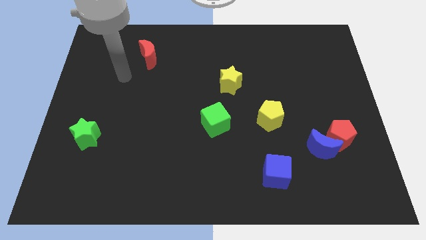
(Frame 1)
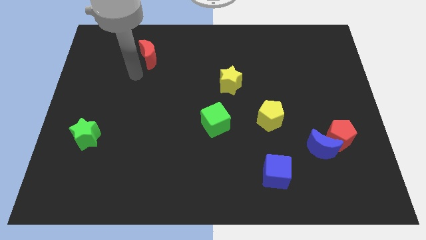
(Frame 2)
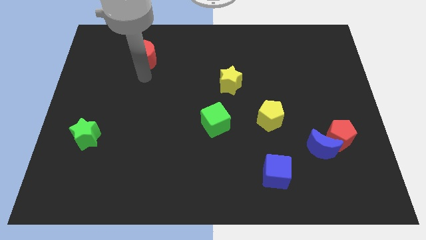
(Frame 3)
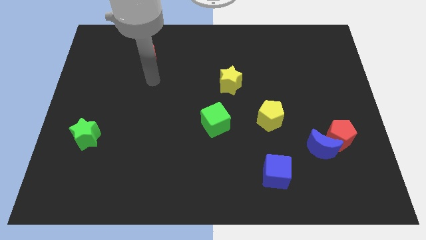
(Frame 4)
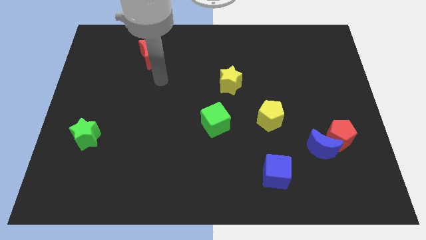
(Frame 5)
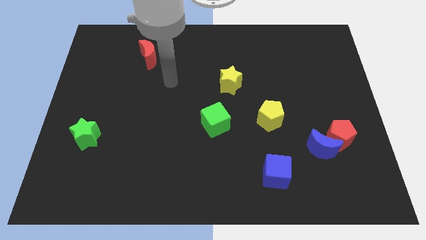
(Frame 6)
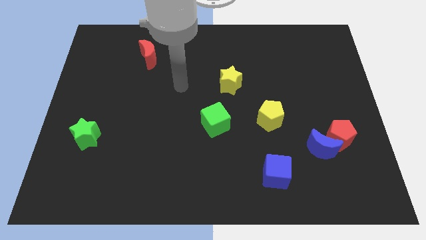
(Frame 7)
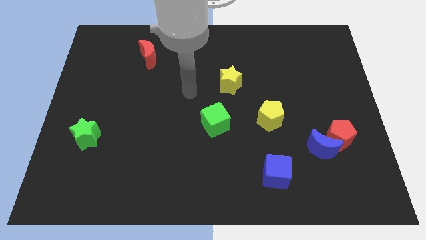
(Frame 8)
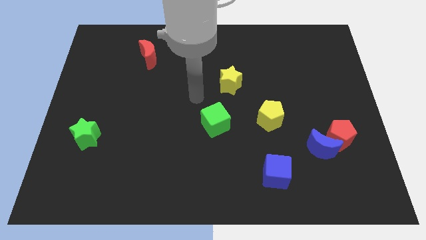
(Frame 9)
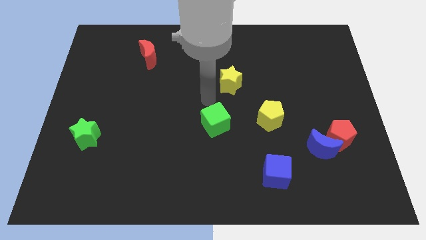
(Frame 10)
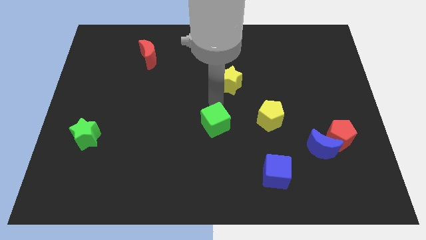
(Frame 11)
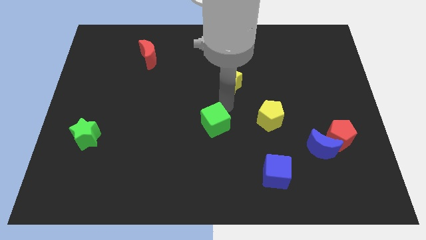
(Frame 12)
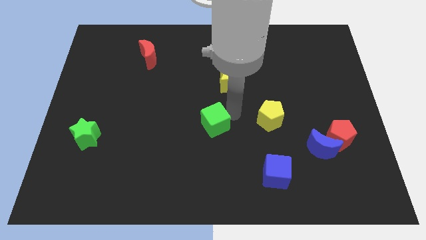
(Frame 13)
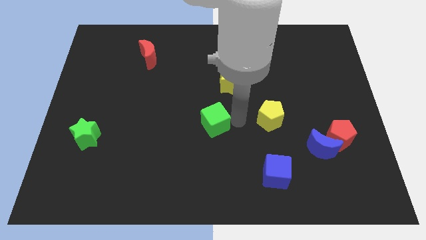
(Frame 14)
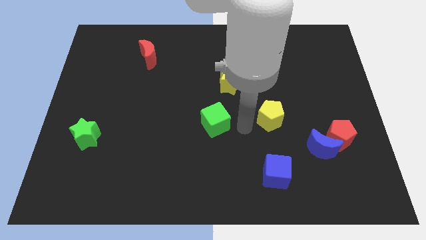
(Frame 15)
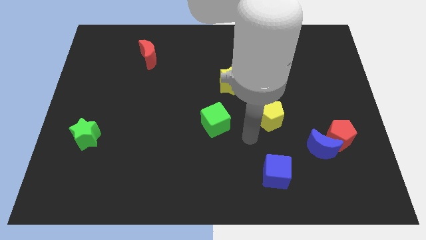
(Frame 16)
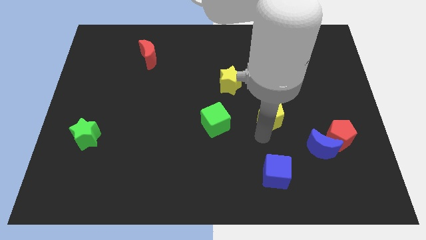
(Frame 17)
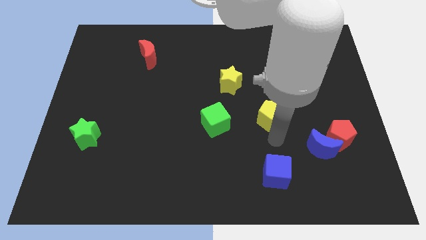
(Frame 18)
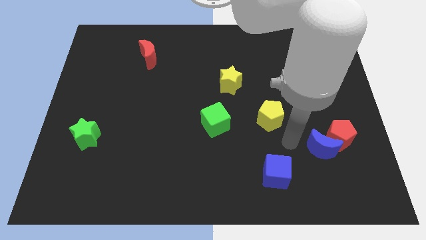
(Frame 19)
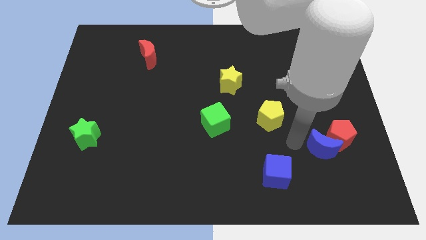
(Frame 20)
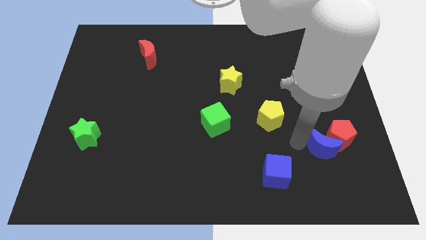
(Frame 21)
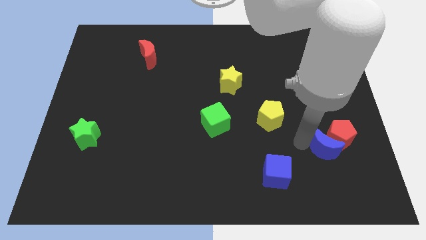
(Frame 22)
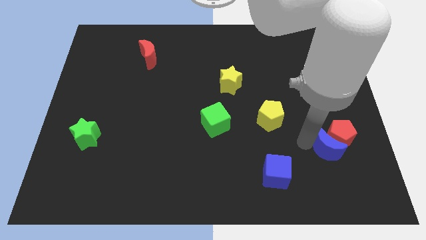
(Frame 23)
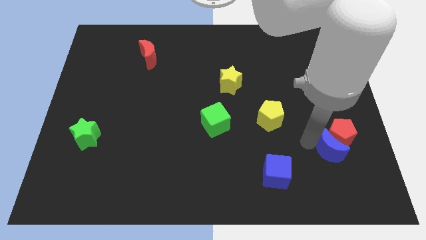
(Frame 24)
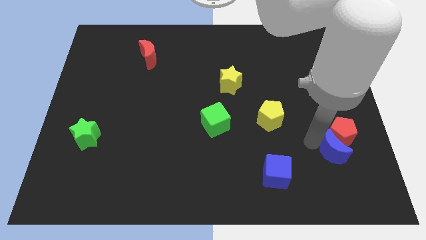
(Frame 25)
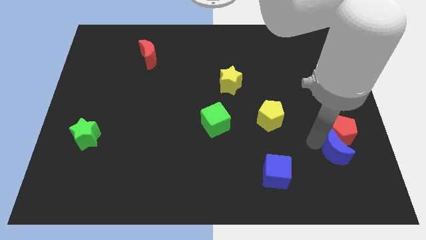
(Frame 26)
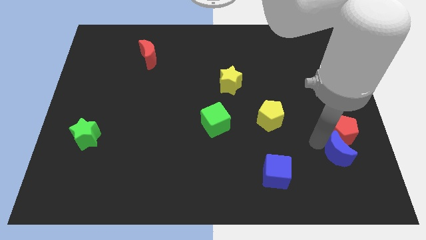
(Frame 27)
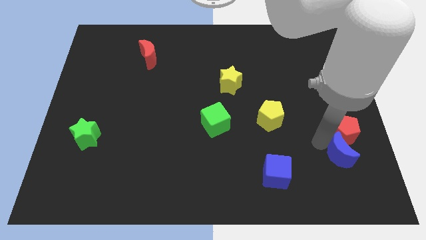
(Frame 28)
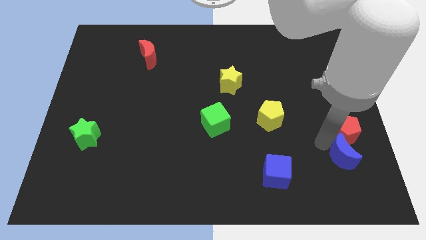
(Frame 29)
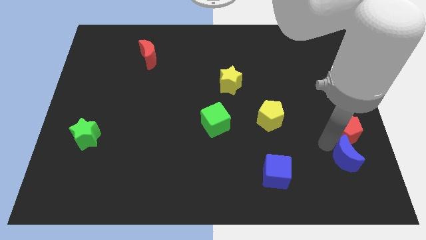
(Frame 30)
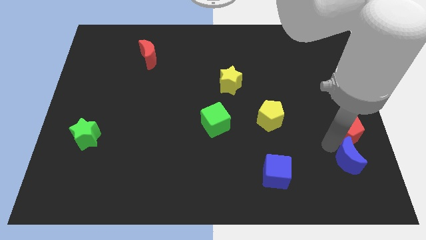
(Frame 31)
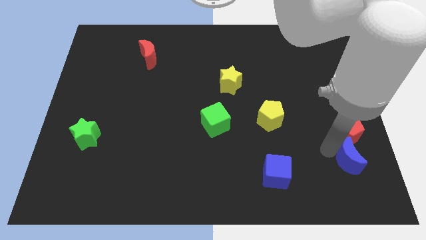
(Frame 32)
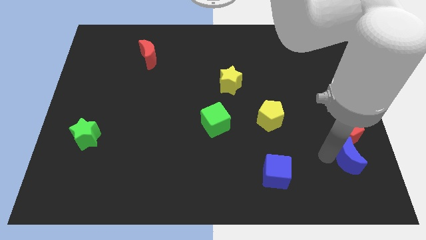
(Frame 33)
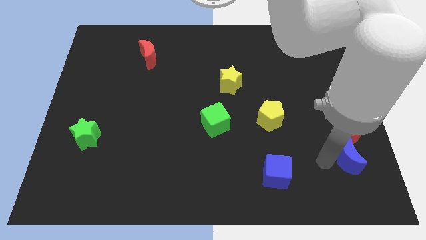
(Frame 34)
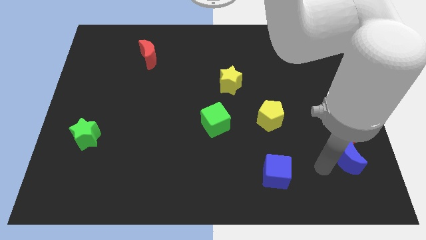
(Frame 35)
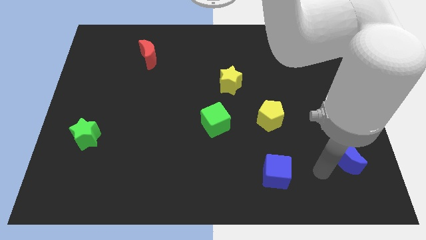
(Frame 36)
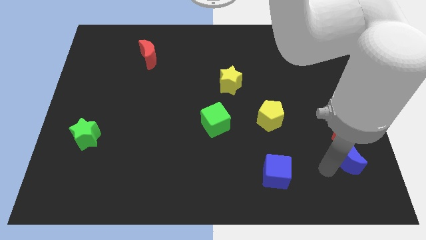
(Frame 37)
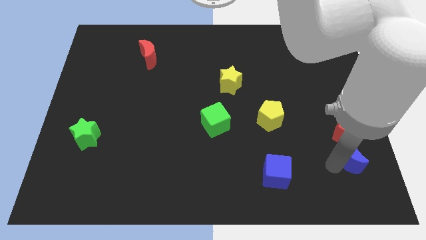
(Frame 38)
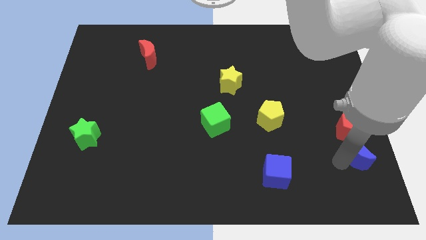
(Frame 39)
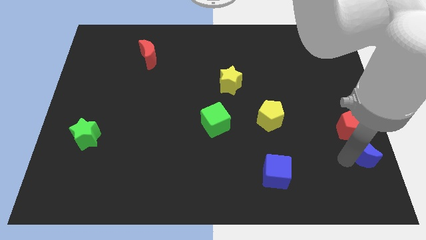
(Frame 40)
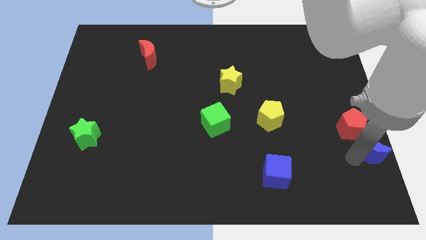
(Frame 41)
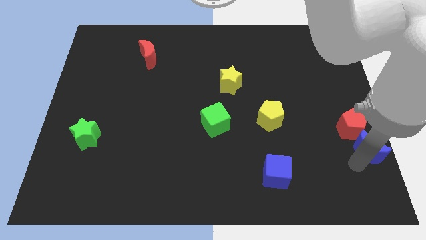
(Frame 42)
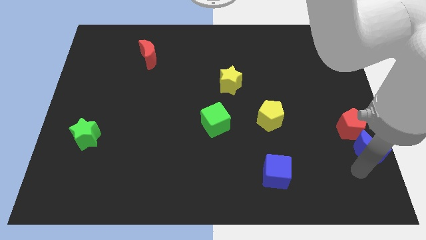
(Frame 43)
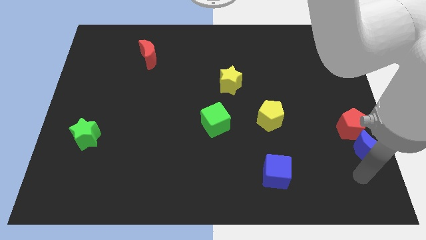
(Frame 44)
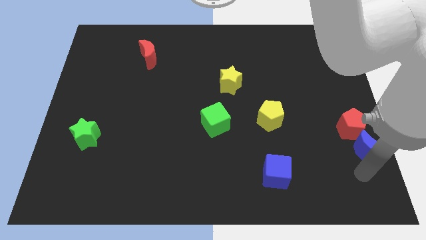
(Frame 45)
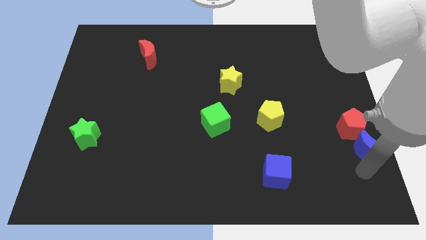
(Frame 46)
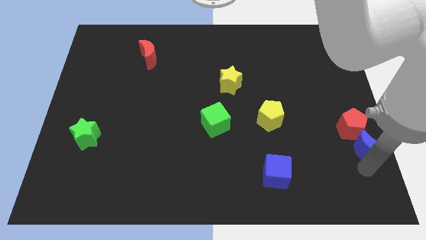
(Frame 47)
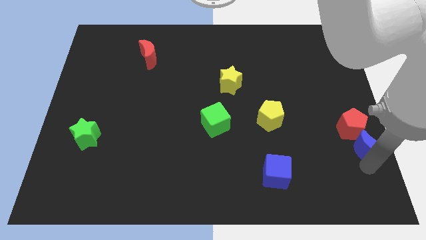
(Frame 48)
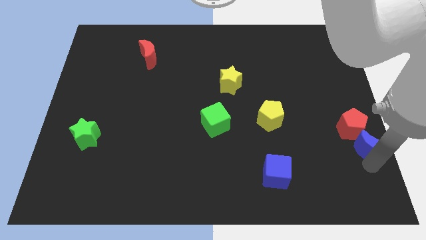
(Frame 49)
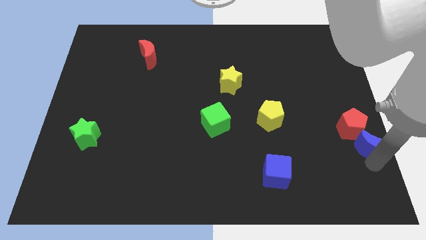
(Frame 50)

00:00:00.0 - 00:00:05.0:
move the blue moon to the center right
